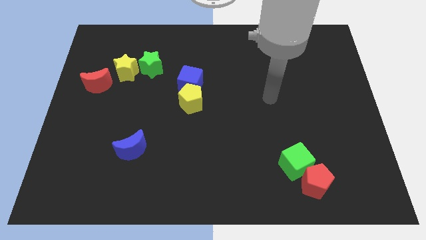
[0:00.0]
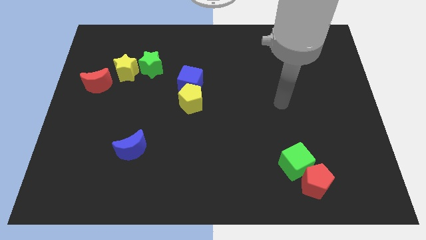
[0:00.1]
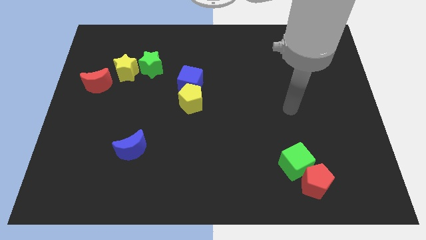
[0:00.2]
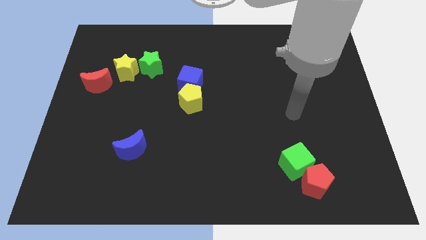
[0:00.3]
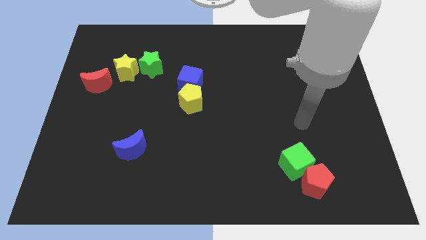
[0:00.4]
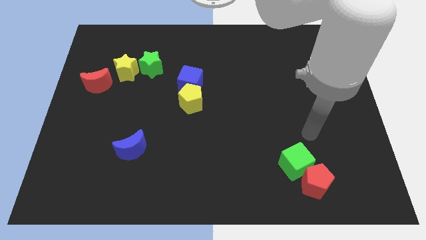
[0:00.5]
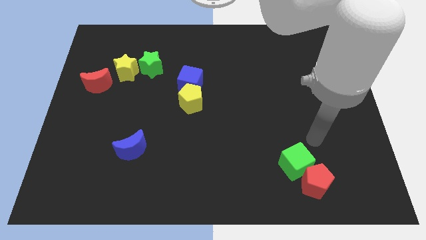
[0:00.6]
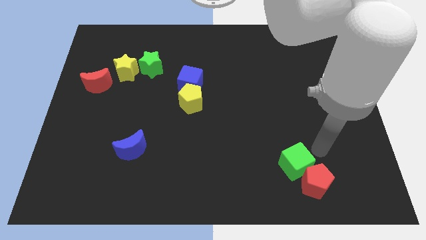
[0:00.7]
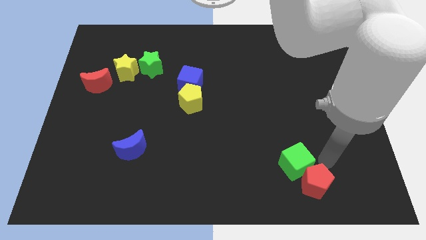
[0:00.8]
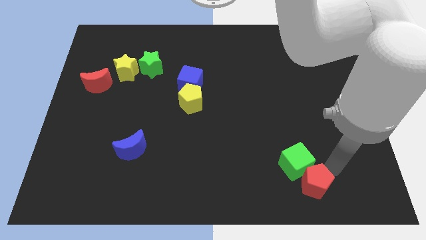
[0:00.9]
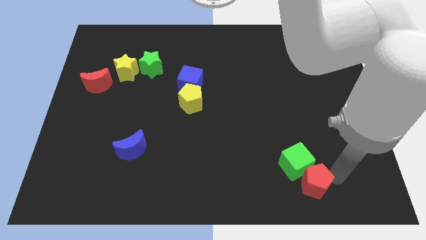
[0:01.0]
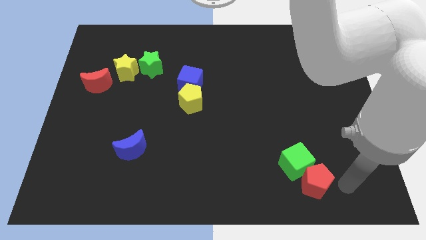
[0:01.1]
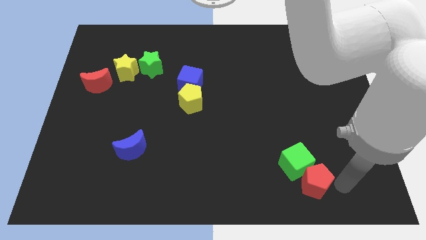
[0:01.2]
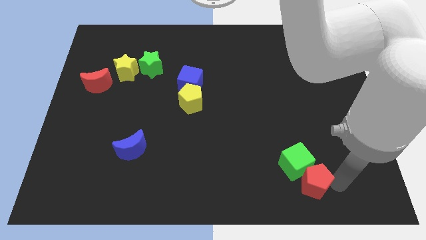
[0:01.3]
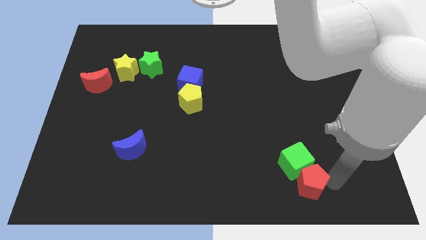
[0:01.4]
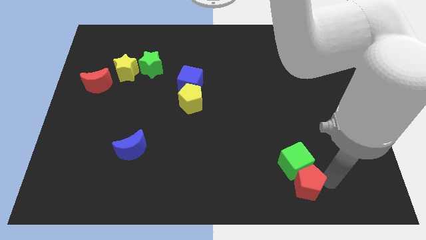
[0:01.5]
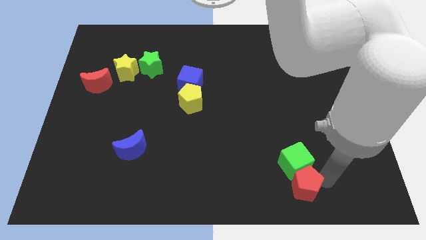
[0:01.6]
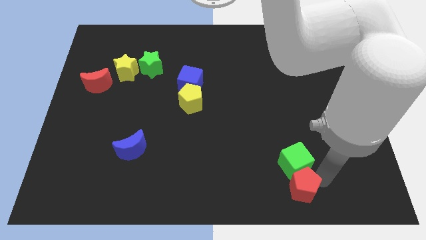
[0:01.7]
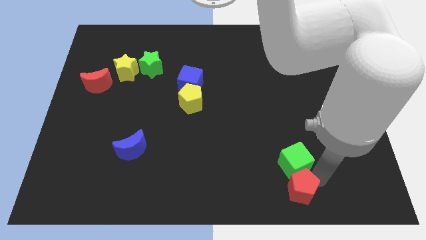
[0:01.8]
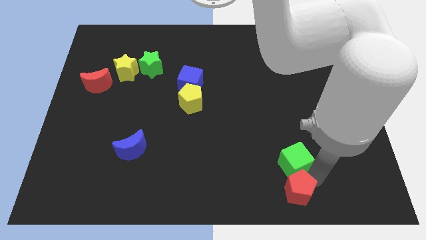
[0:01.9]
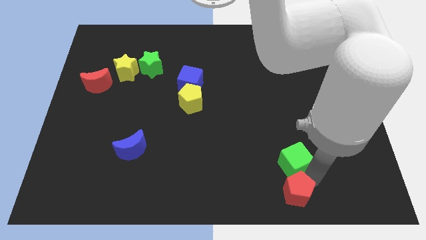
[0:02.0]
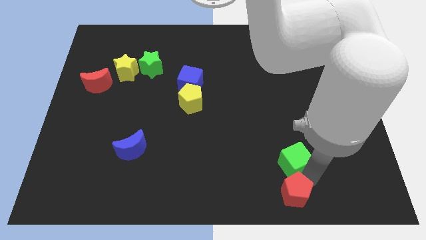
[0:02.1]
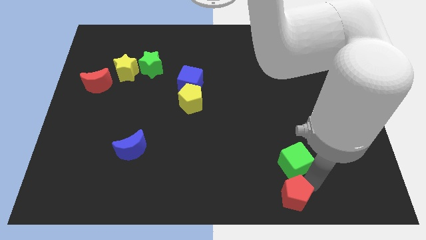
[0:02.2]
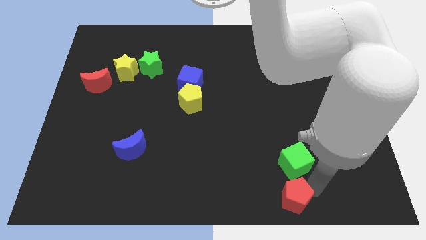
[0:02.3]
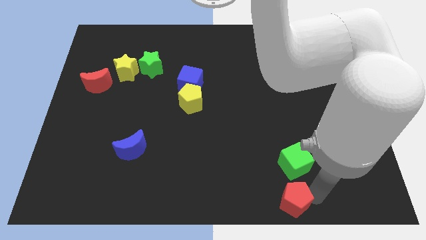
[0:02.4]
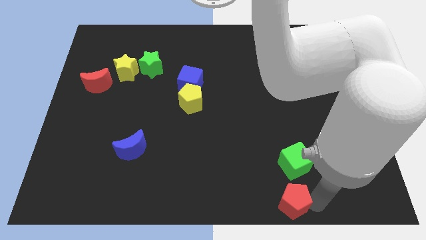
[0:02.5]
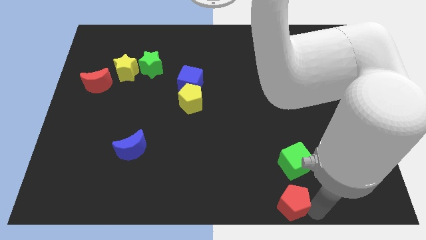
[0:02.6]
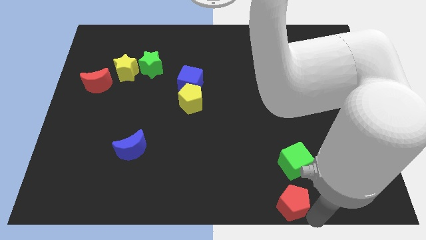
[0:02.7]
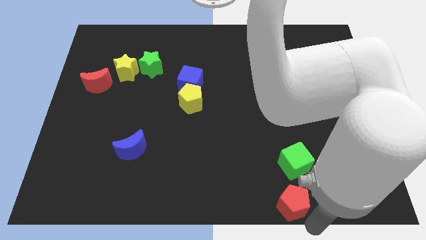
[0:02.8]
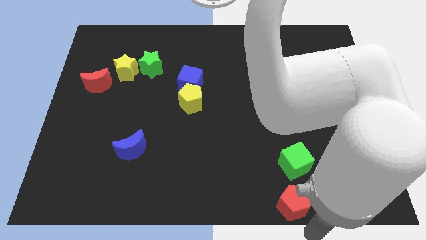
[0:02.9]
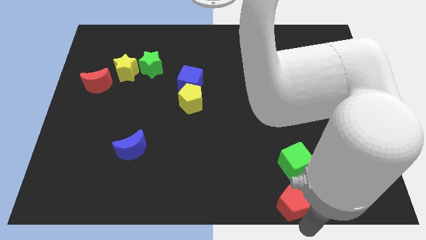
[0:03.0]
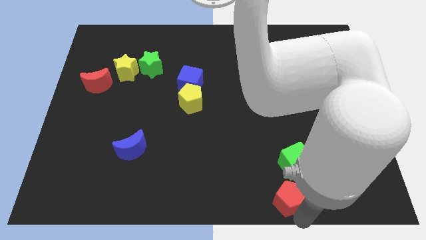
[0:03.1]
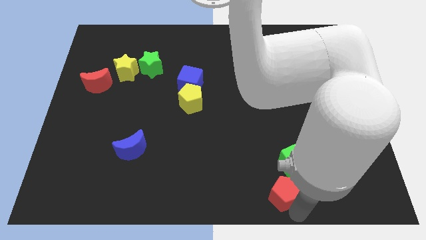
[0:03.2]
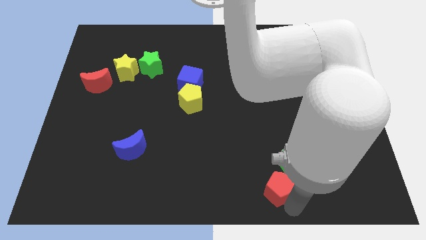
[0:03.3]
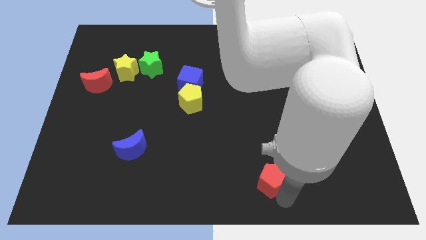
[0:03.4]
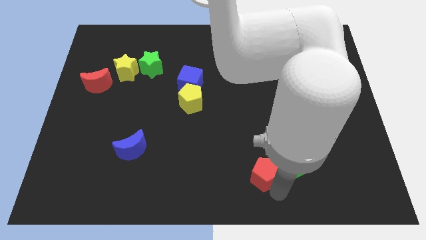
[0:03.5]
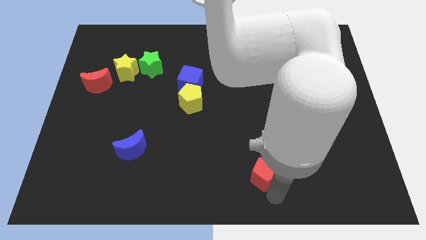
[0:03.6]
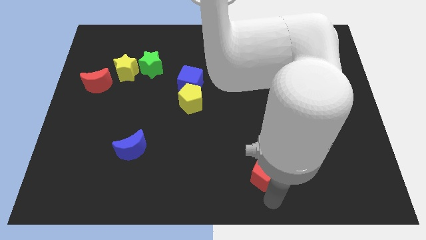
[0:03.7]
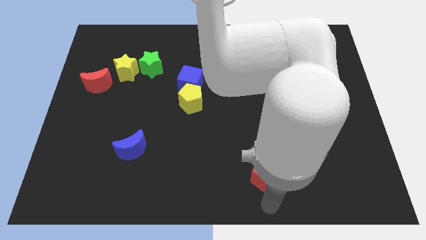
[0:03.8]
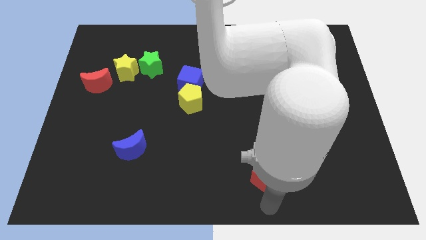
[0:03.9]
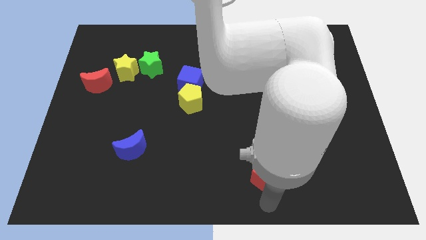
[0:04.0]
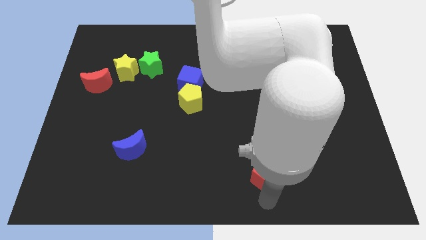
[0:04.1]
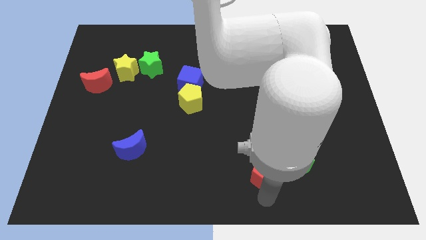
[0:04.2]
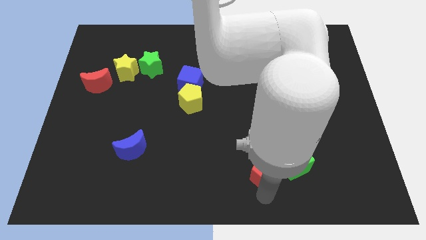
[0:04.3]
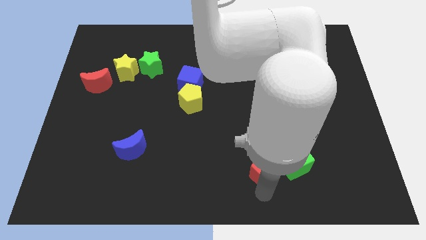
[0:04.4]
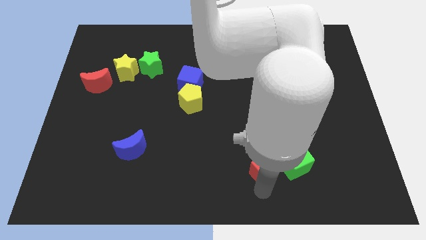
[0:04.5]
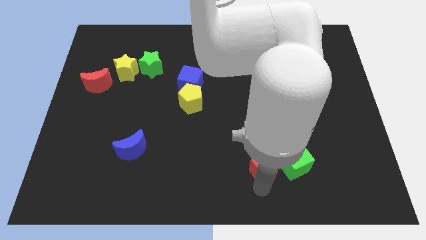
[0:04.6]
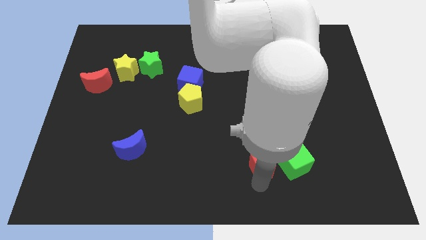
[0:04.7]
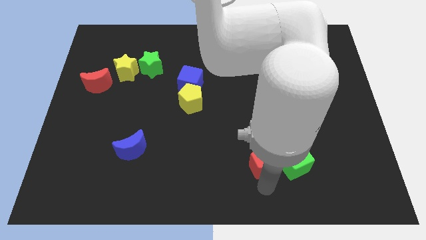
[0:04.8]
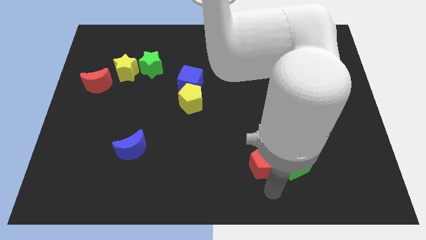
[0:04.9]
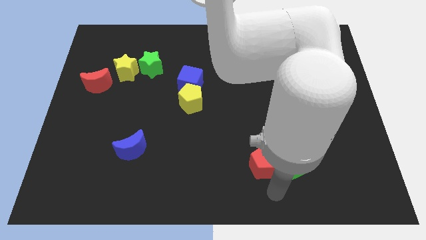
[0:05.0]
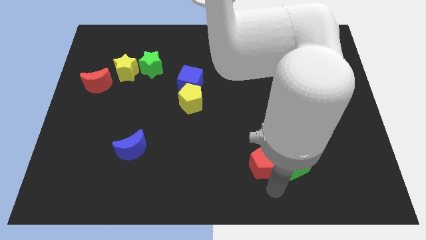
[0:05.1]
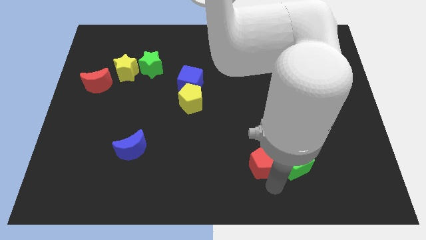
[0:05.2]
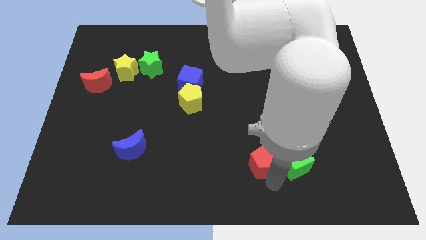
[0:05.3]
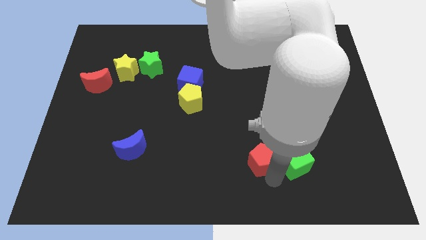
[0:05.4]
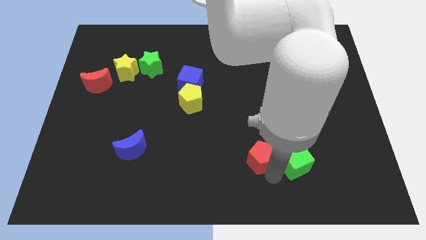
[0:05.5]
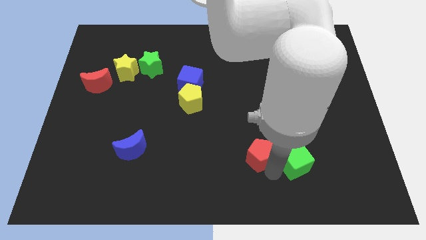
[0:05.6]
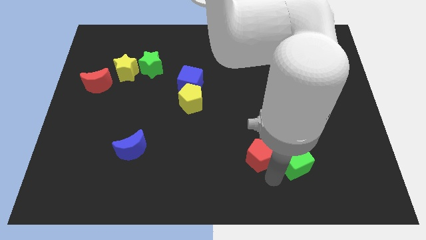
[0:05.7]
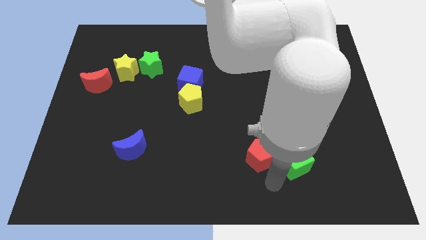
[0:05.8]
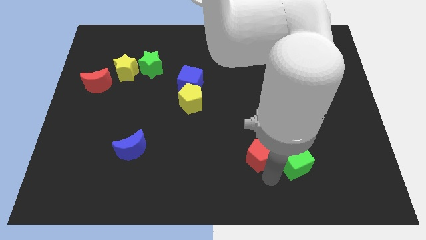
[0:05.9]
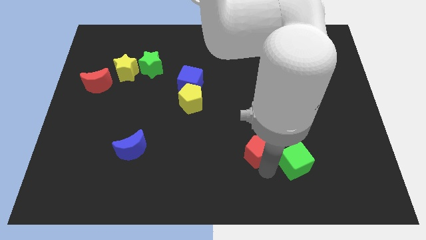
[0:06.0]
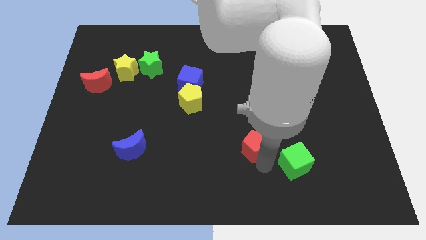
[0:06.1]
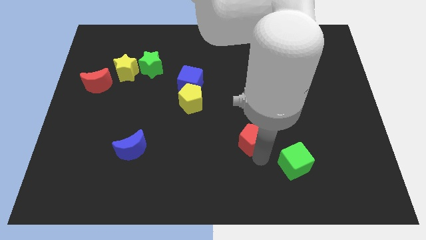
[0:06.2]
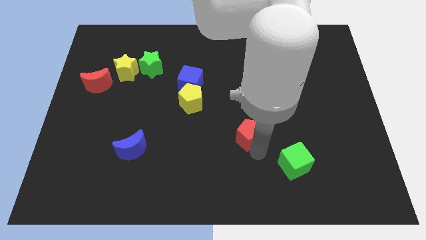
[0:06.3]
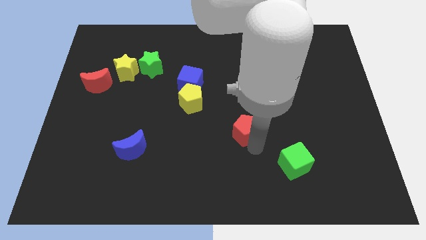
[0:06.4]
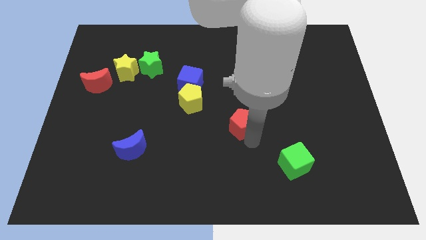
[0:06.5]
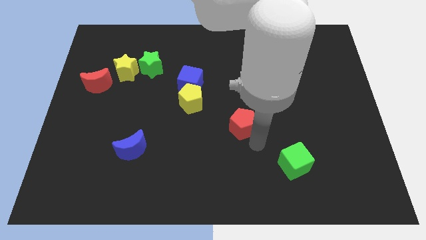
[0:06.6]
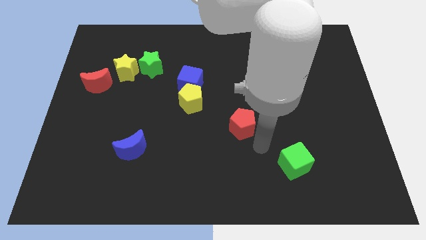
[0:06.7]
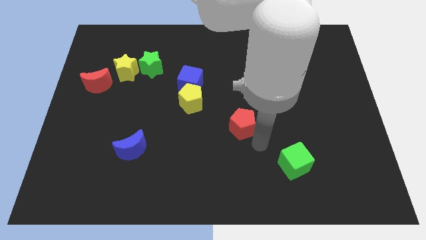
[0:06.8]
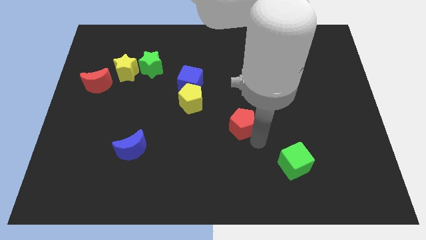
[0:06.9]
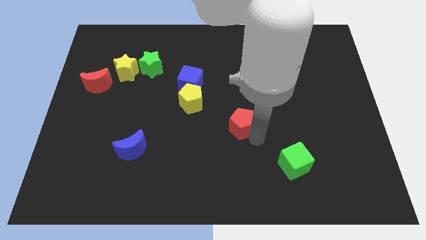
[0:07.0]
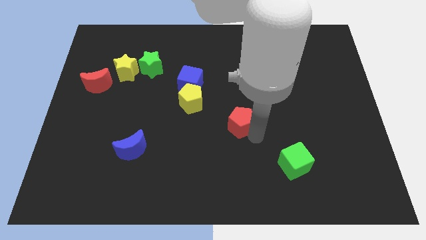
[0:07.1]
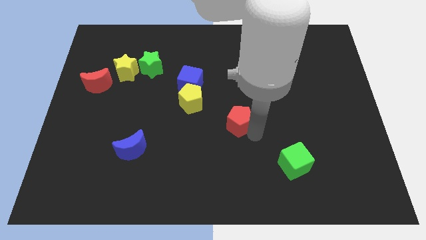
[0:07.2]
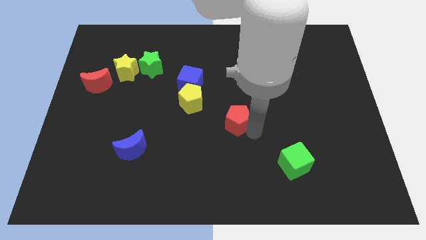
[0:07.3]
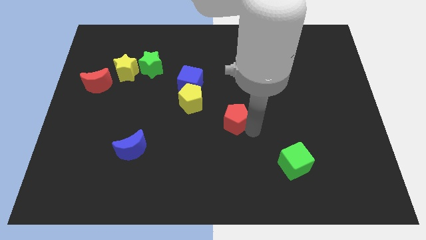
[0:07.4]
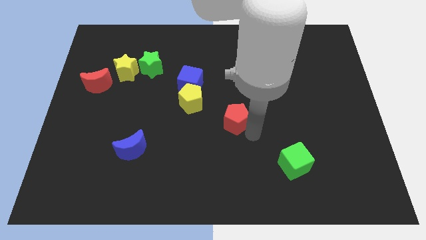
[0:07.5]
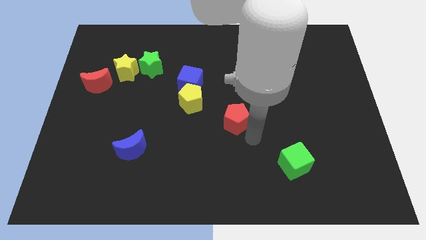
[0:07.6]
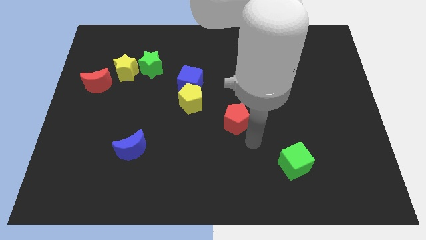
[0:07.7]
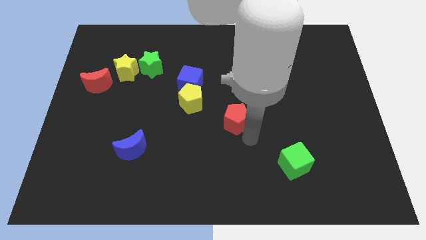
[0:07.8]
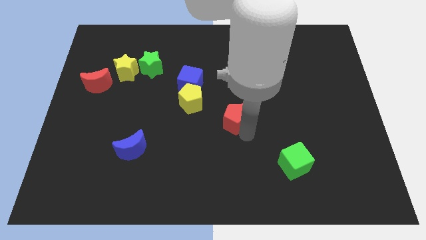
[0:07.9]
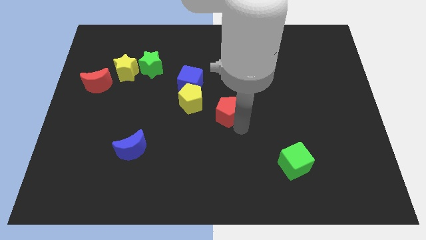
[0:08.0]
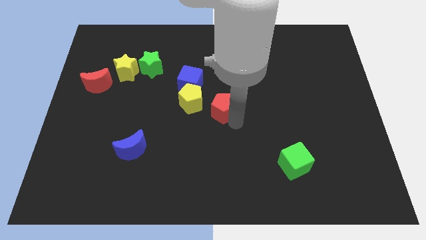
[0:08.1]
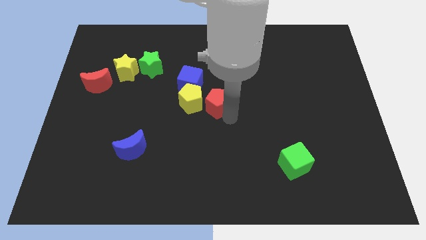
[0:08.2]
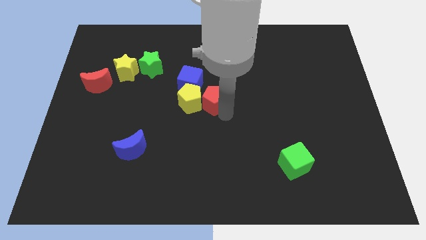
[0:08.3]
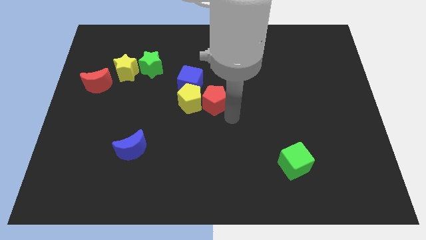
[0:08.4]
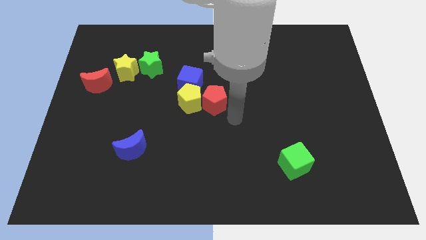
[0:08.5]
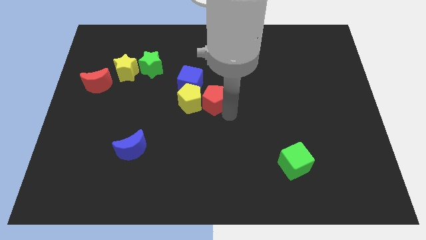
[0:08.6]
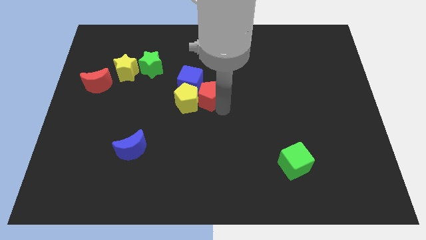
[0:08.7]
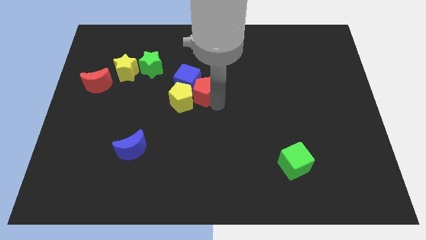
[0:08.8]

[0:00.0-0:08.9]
push the red pentagon towards the blue cube
